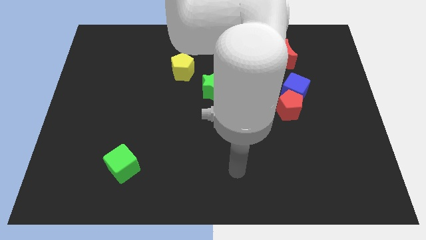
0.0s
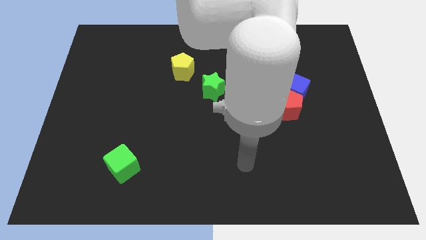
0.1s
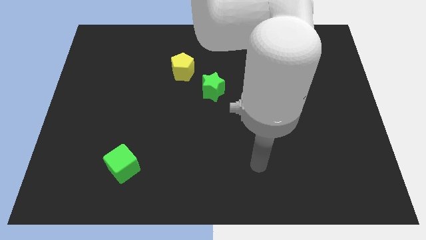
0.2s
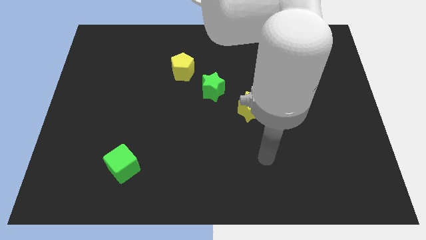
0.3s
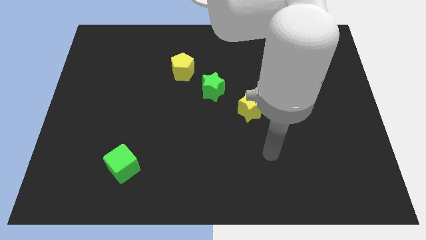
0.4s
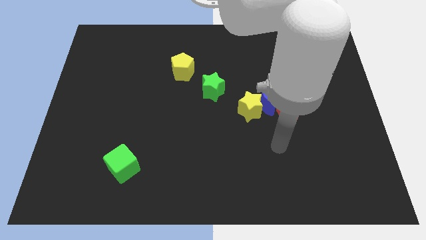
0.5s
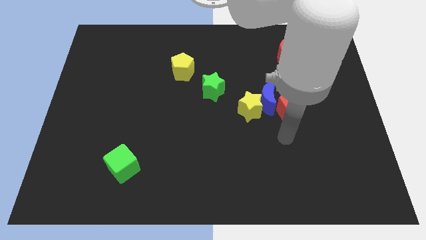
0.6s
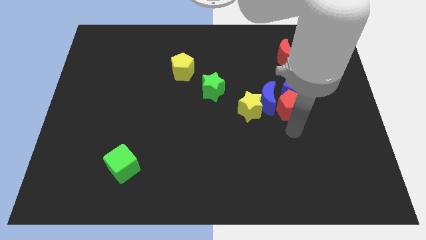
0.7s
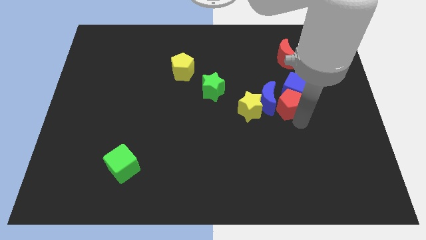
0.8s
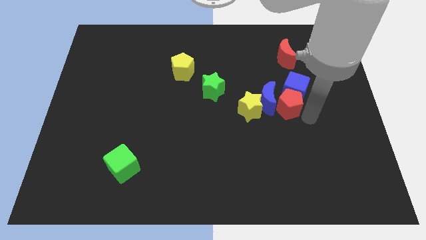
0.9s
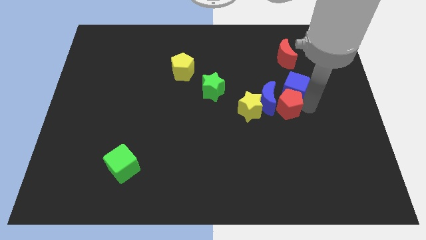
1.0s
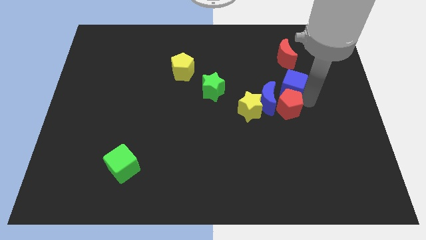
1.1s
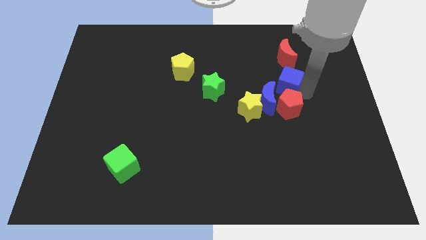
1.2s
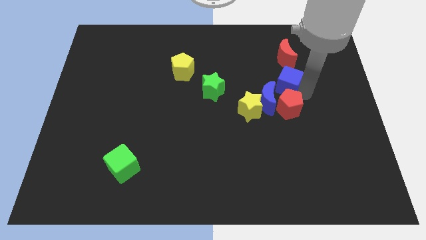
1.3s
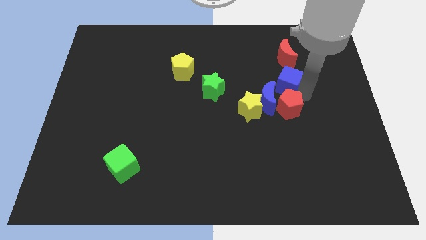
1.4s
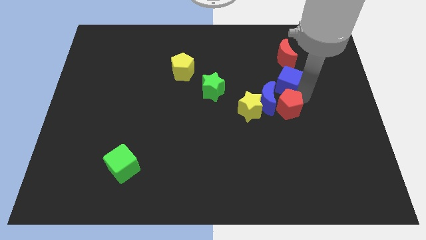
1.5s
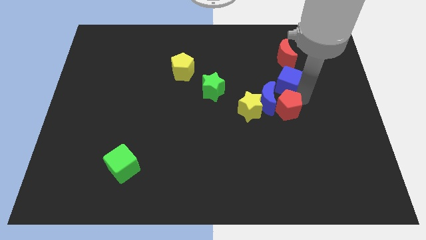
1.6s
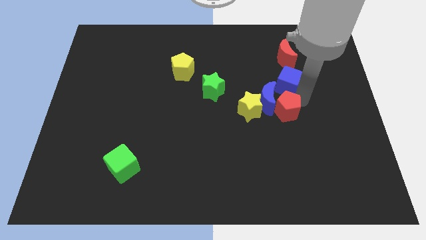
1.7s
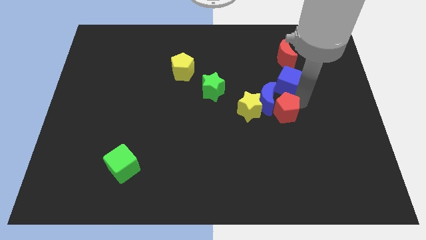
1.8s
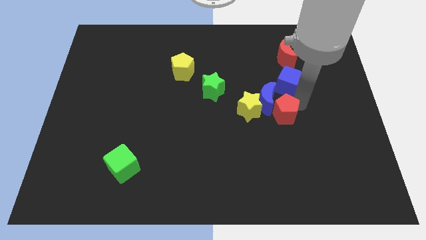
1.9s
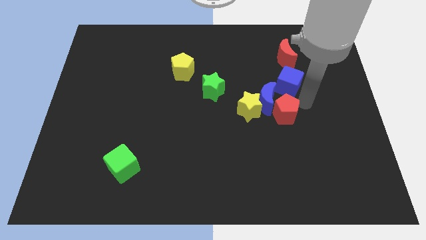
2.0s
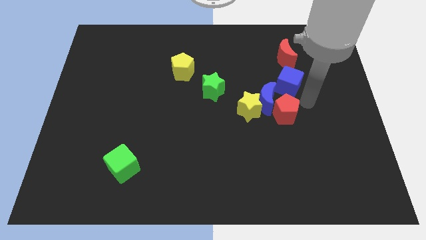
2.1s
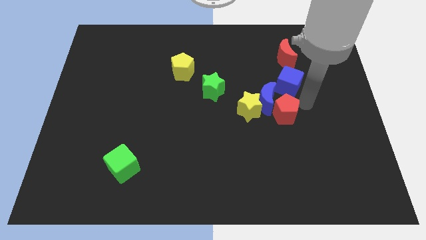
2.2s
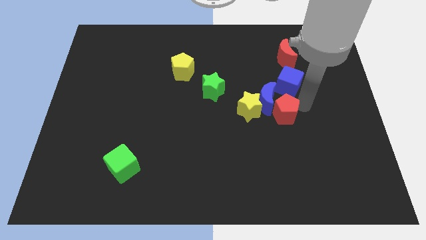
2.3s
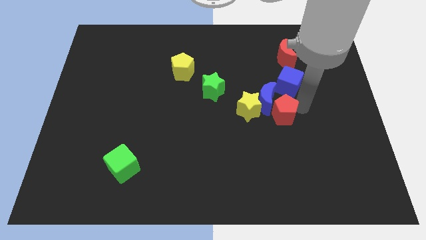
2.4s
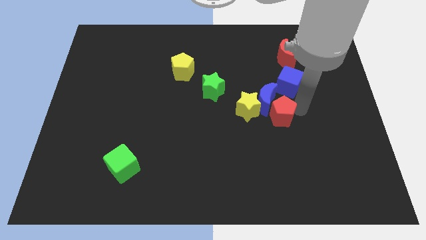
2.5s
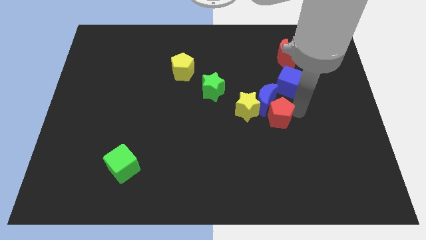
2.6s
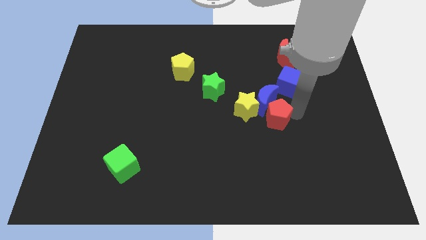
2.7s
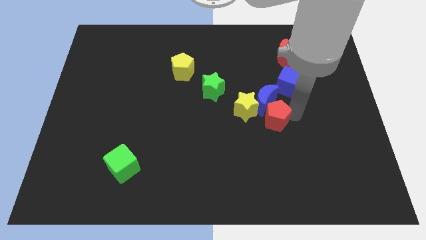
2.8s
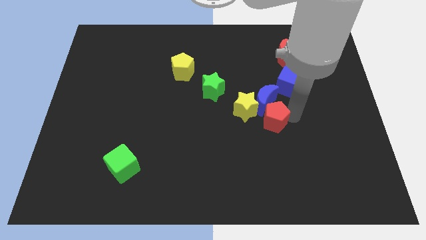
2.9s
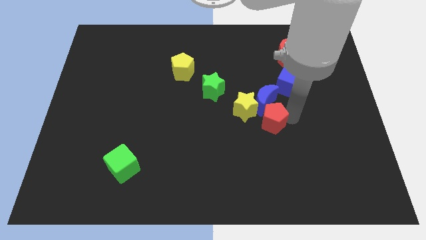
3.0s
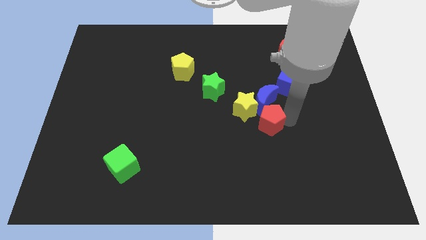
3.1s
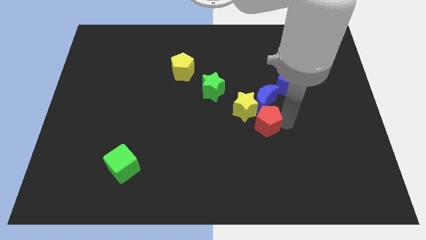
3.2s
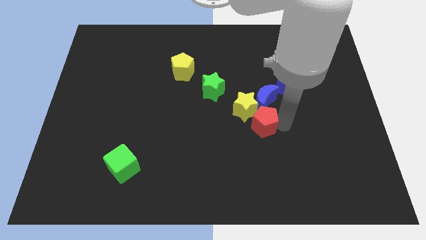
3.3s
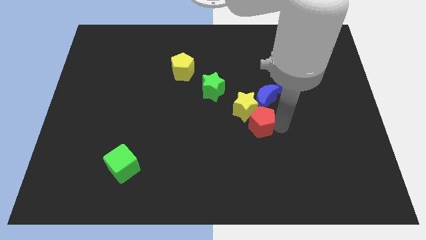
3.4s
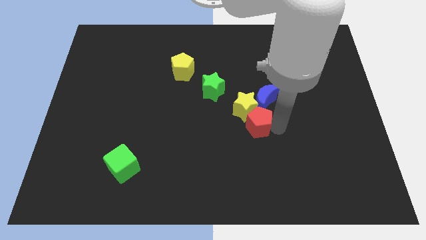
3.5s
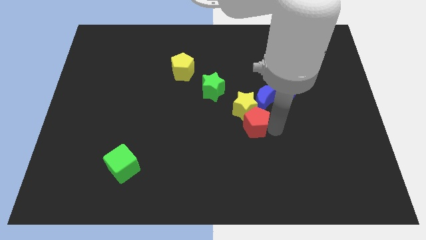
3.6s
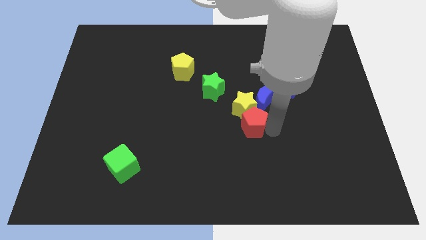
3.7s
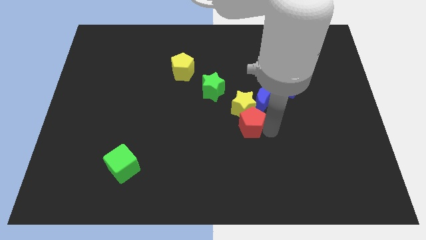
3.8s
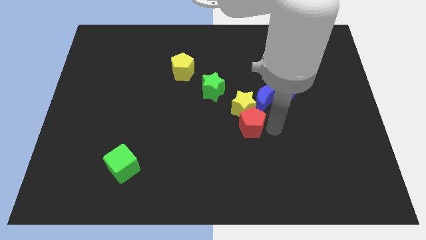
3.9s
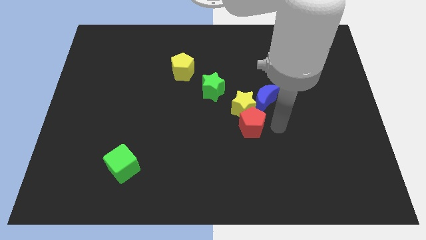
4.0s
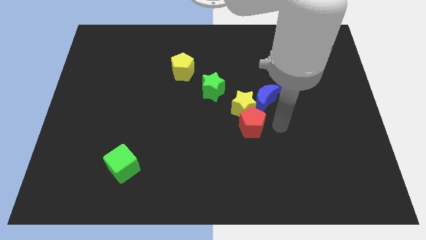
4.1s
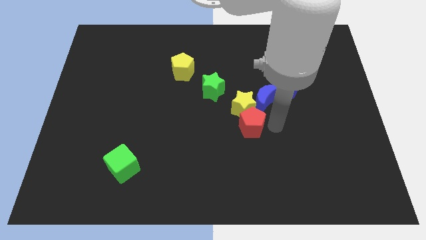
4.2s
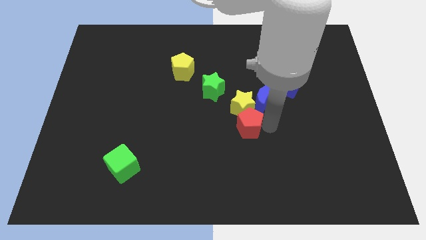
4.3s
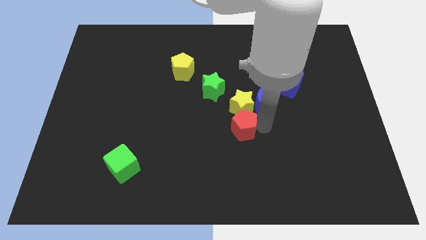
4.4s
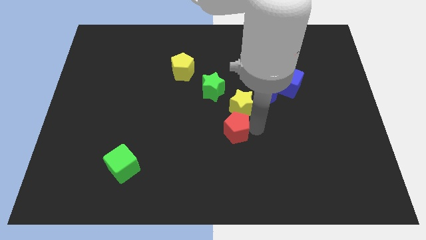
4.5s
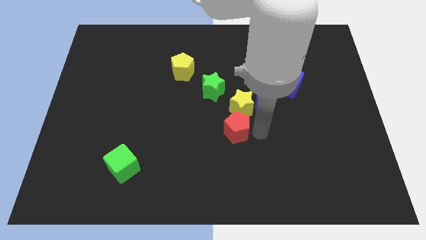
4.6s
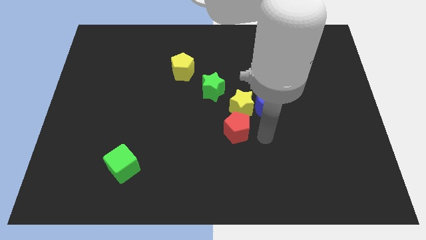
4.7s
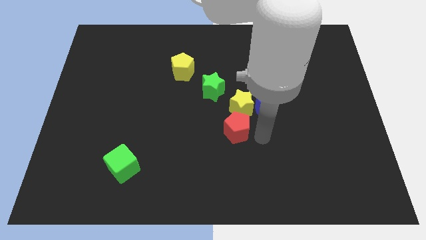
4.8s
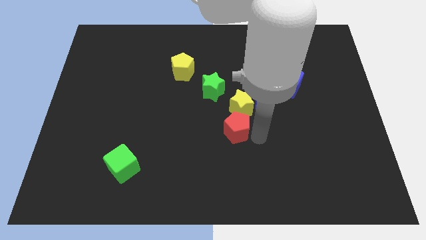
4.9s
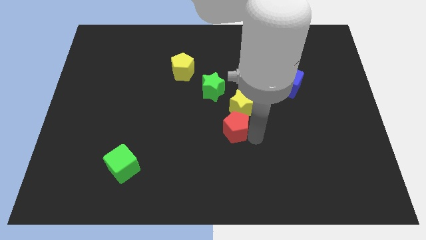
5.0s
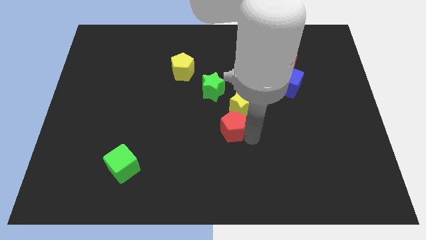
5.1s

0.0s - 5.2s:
slide the red pentagon to the bottom of the green star

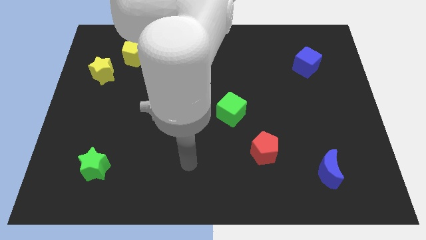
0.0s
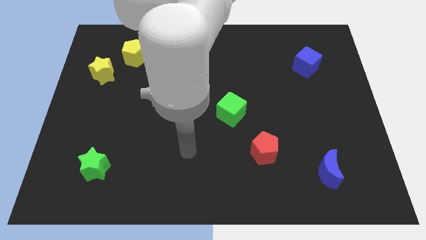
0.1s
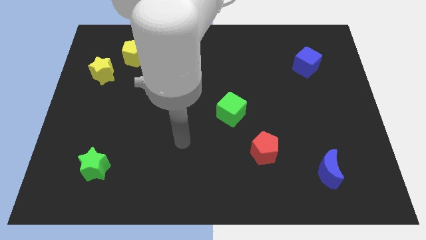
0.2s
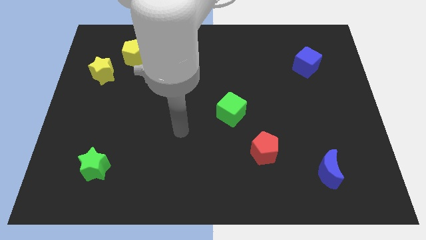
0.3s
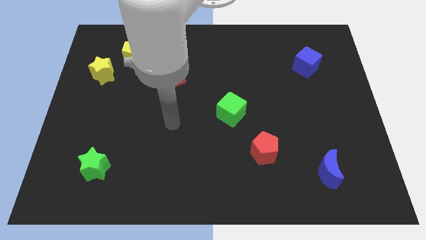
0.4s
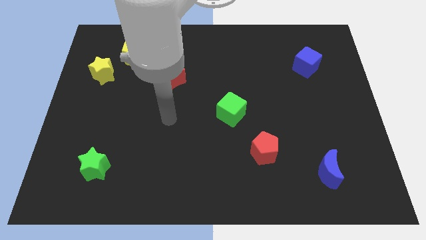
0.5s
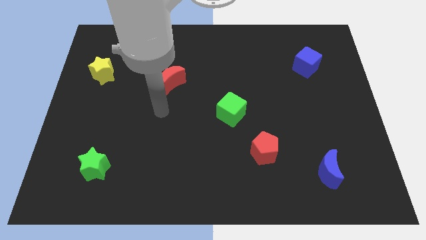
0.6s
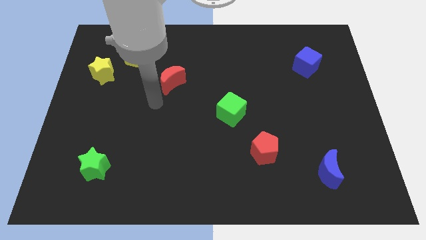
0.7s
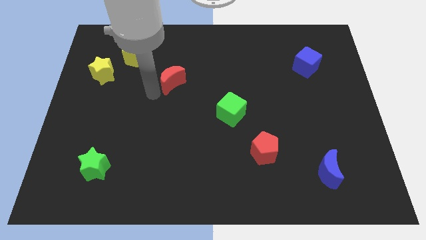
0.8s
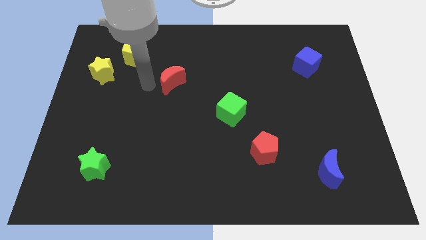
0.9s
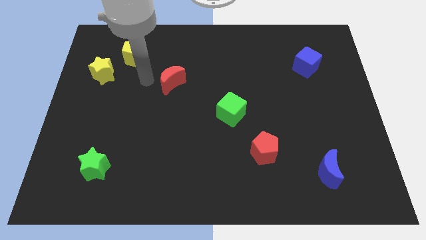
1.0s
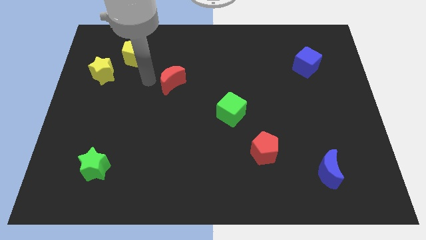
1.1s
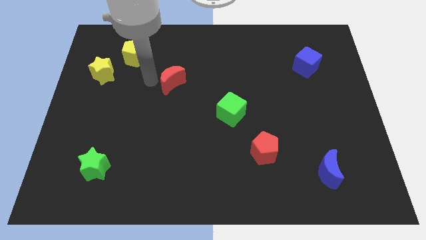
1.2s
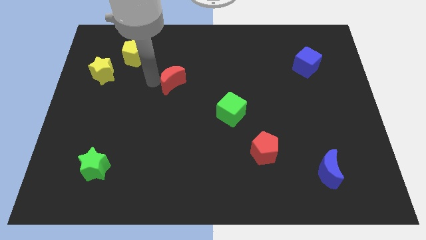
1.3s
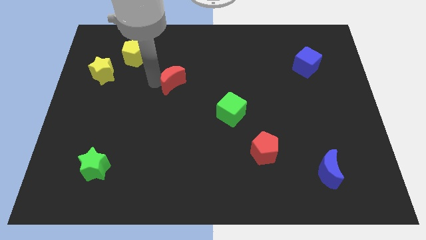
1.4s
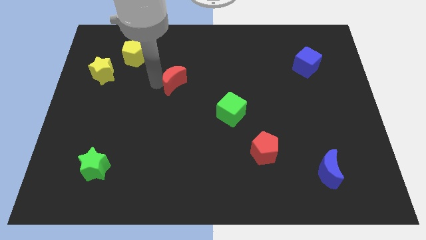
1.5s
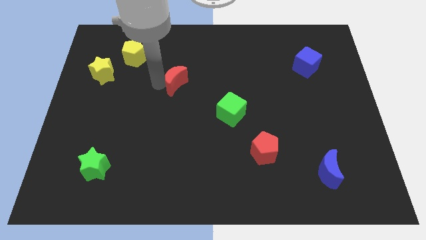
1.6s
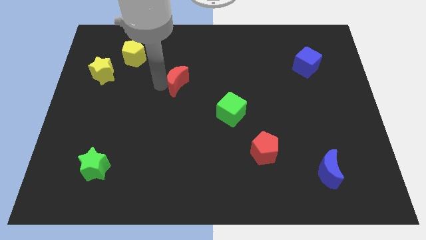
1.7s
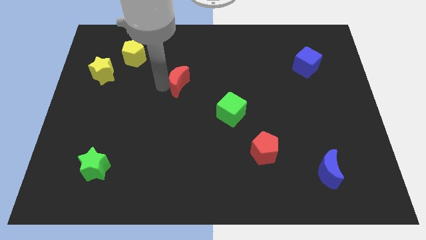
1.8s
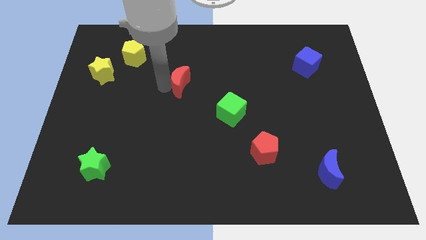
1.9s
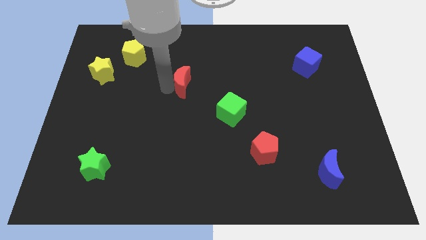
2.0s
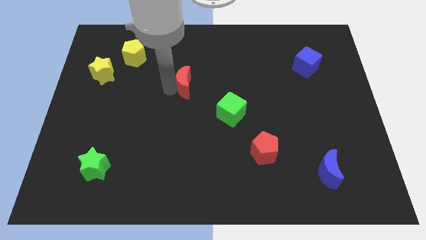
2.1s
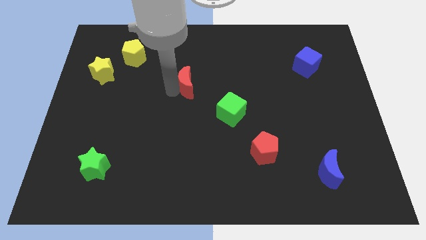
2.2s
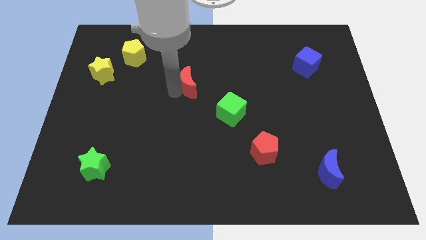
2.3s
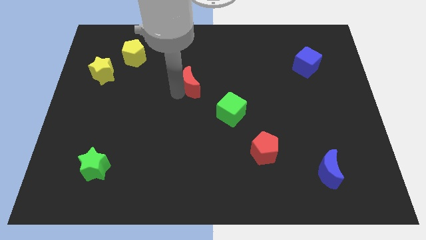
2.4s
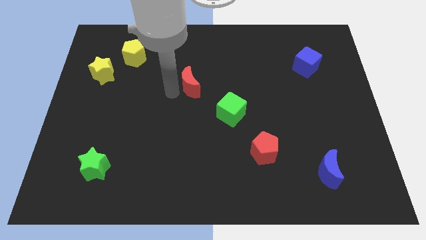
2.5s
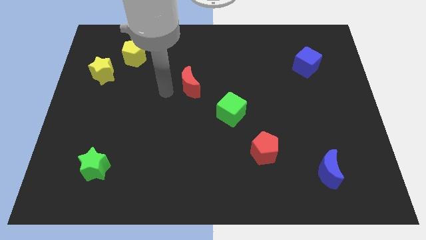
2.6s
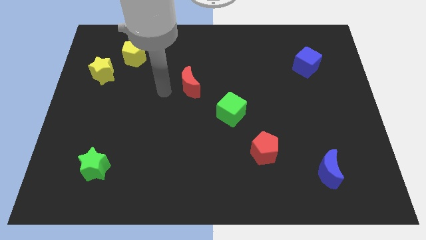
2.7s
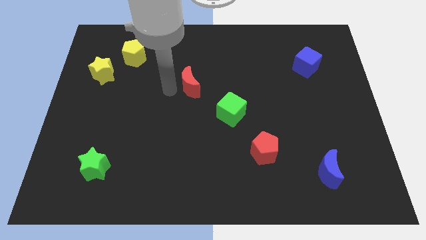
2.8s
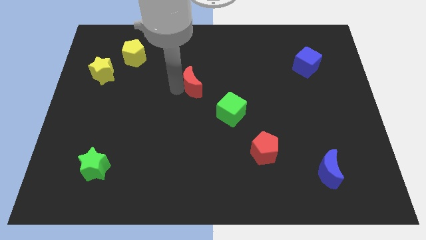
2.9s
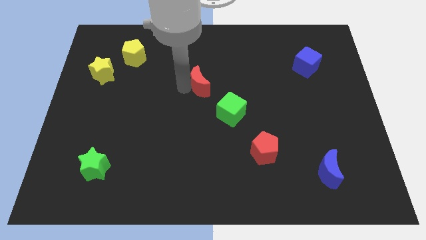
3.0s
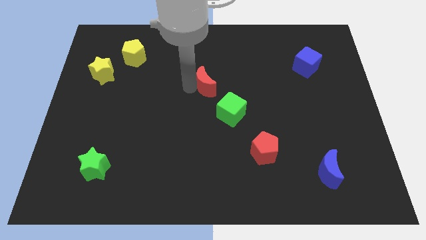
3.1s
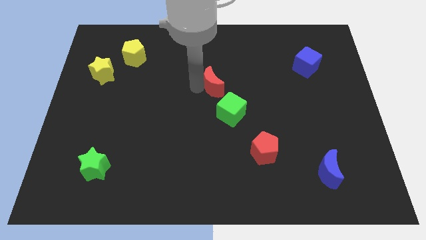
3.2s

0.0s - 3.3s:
put the red moon to the top side of the green cube
